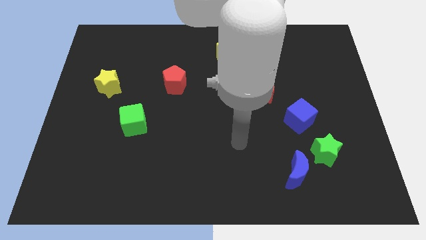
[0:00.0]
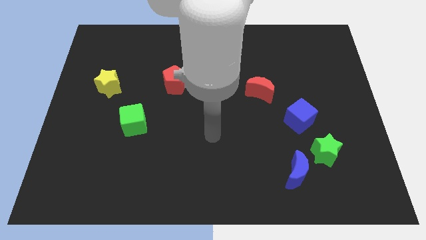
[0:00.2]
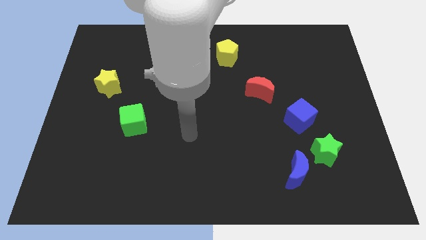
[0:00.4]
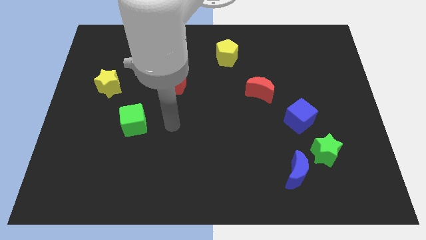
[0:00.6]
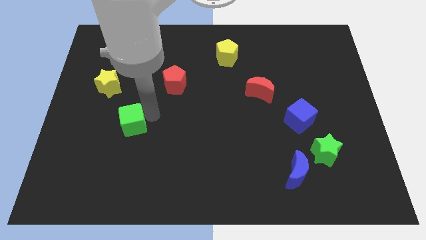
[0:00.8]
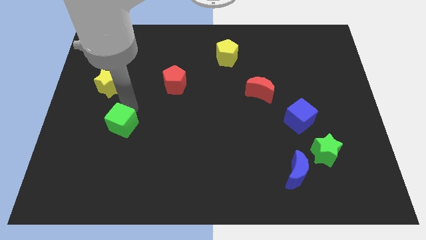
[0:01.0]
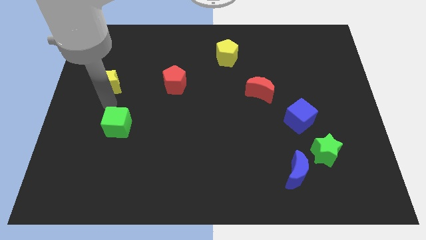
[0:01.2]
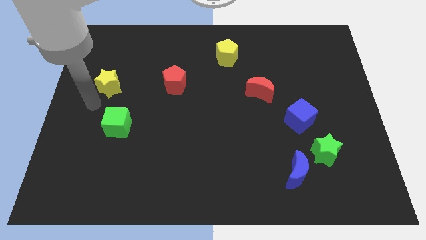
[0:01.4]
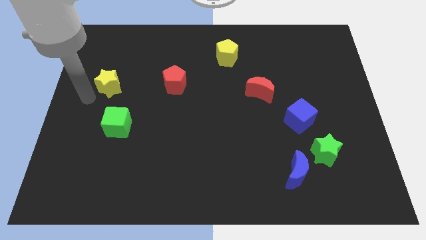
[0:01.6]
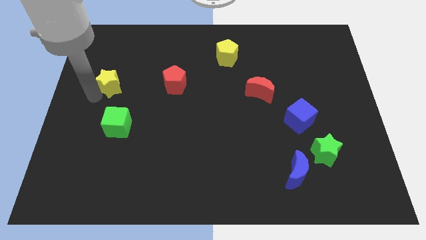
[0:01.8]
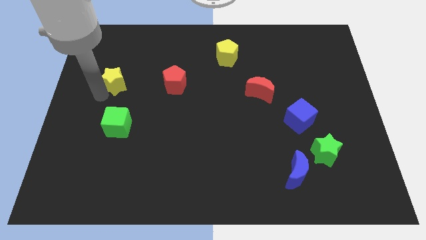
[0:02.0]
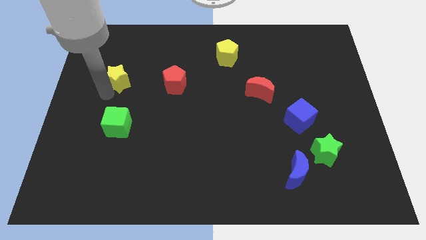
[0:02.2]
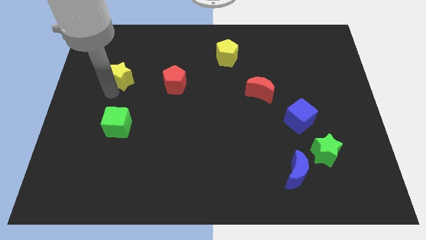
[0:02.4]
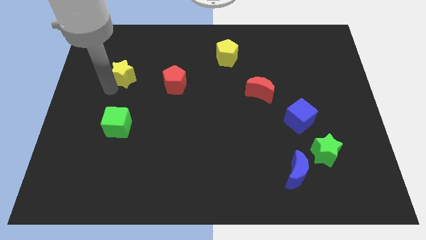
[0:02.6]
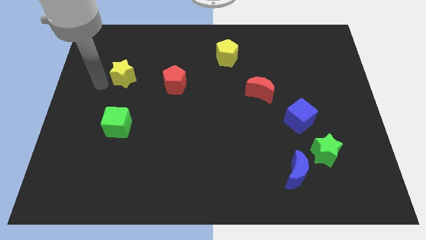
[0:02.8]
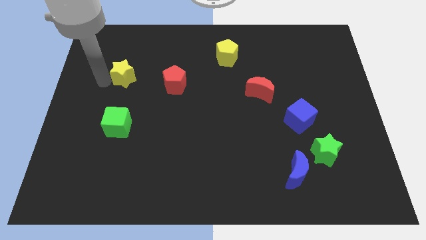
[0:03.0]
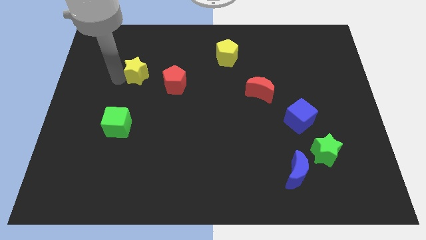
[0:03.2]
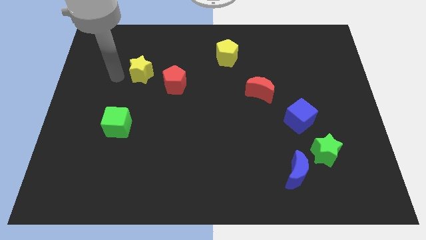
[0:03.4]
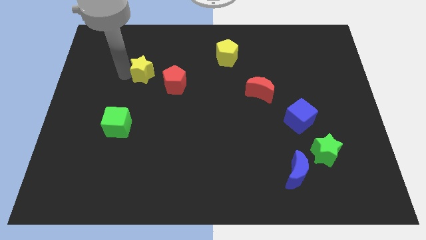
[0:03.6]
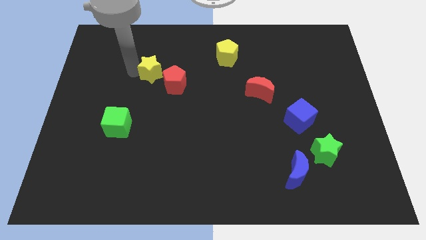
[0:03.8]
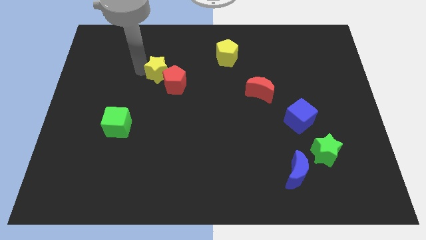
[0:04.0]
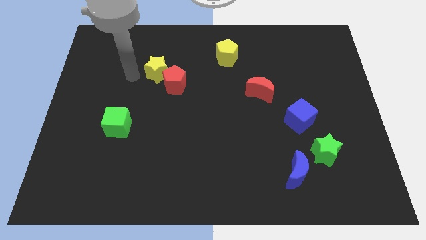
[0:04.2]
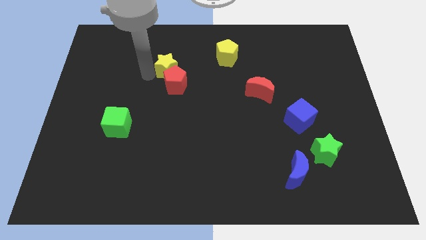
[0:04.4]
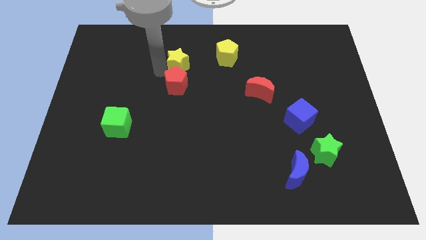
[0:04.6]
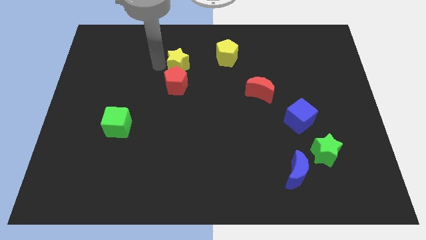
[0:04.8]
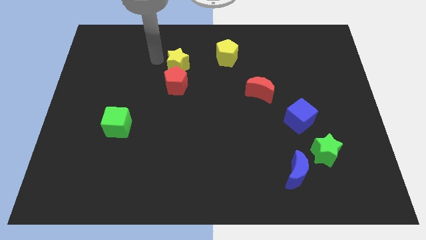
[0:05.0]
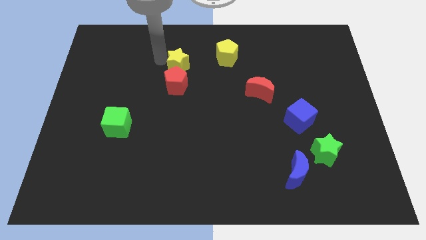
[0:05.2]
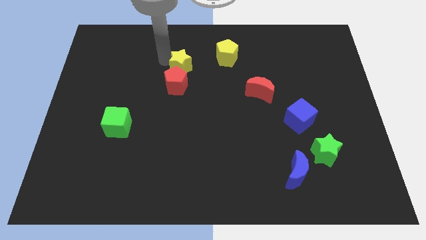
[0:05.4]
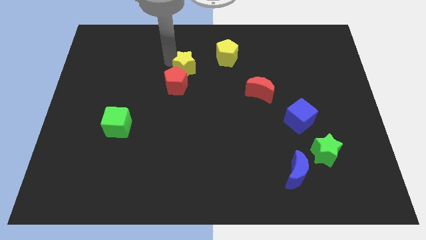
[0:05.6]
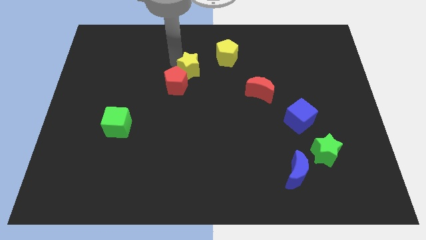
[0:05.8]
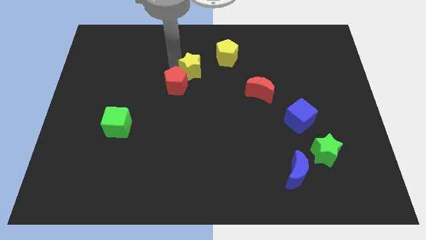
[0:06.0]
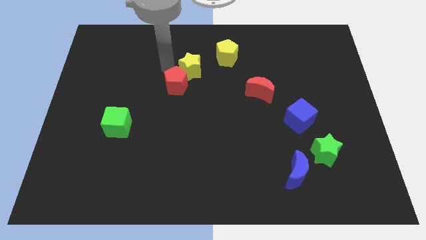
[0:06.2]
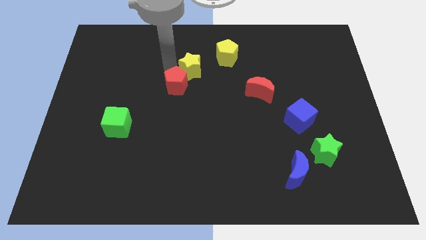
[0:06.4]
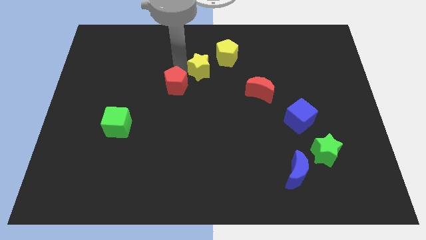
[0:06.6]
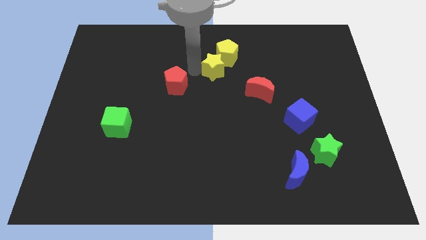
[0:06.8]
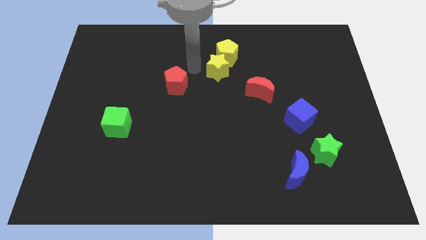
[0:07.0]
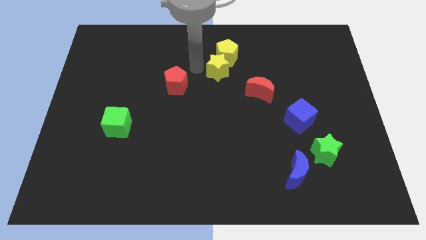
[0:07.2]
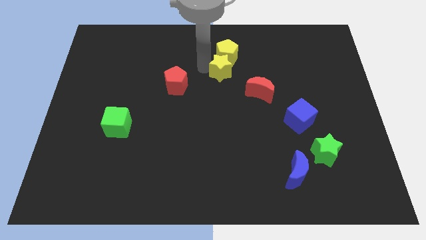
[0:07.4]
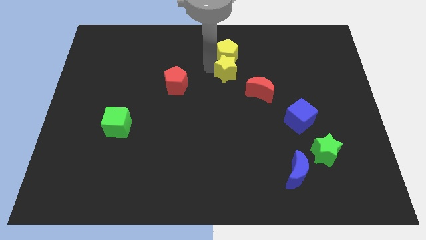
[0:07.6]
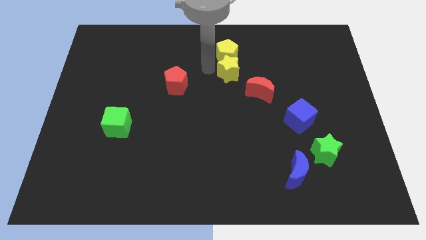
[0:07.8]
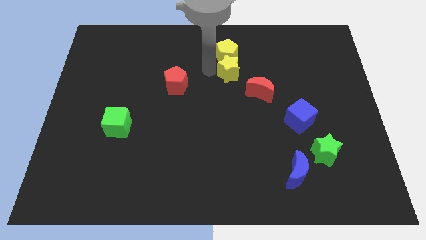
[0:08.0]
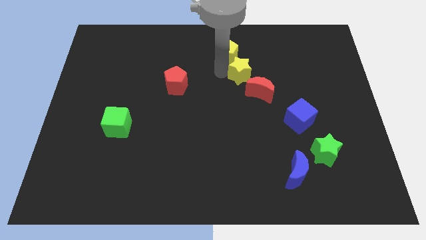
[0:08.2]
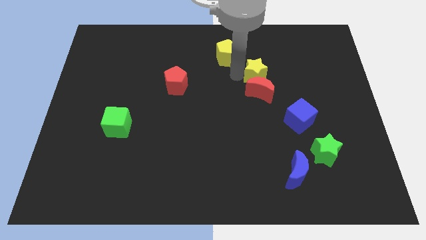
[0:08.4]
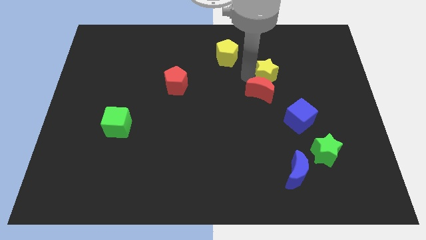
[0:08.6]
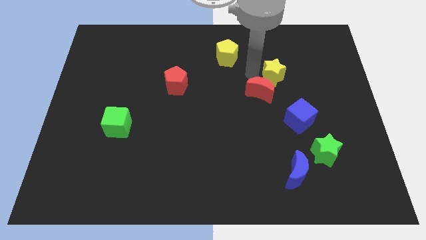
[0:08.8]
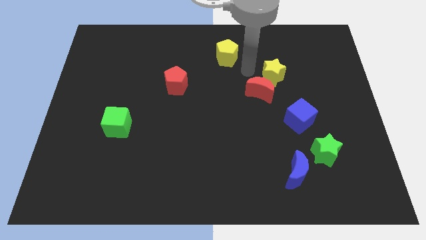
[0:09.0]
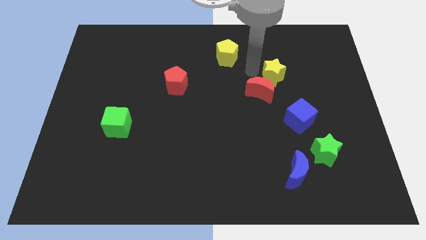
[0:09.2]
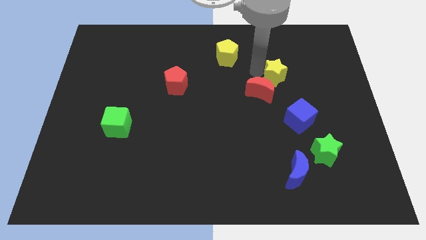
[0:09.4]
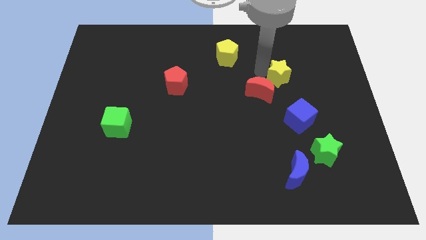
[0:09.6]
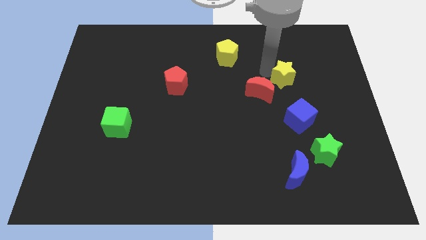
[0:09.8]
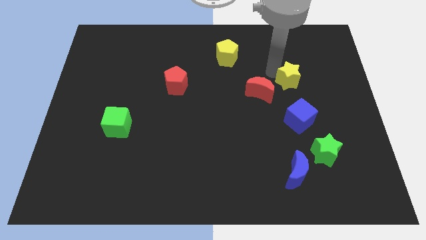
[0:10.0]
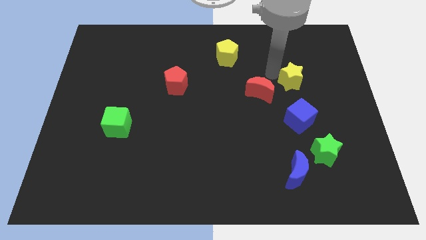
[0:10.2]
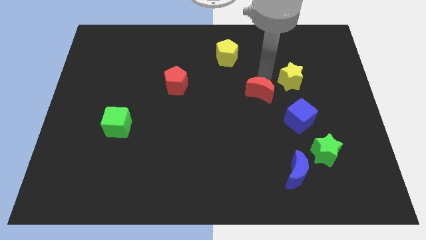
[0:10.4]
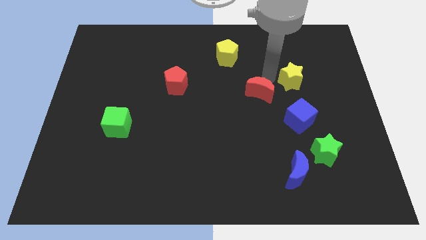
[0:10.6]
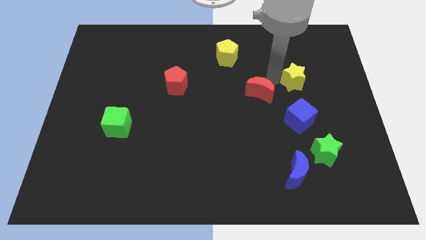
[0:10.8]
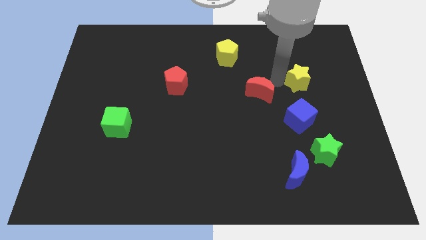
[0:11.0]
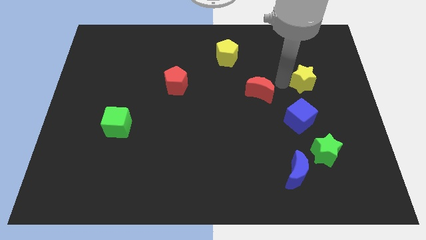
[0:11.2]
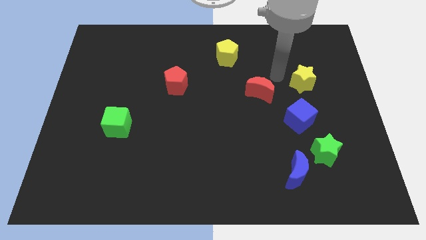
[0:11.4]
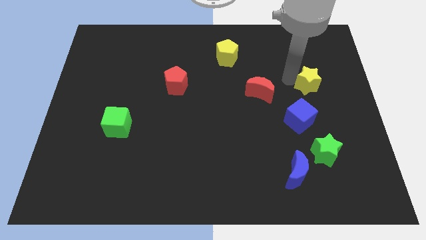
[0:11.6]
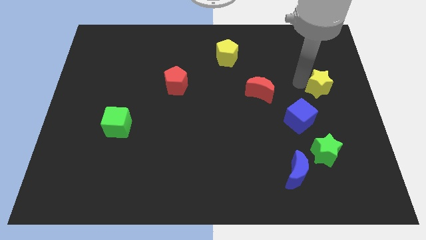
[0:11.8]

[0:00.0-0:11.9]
push the yellow star to the center right

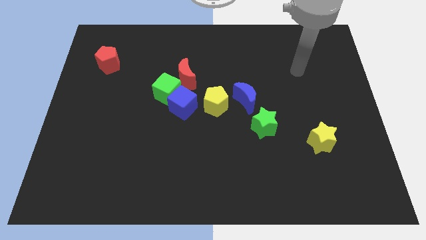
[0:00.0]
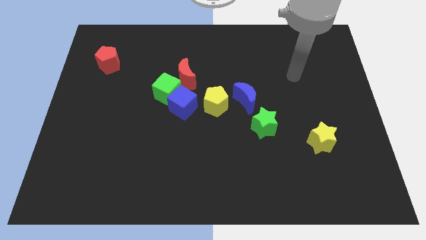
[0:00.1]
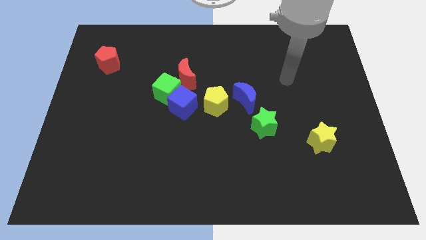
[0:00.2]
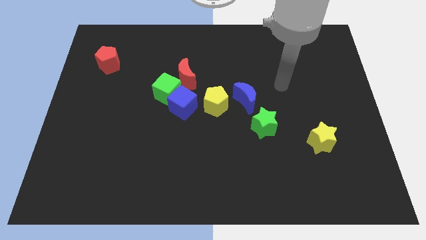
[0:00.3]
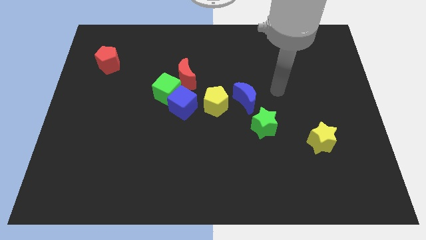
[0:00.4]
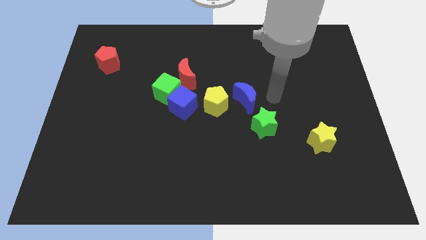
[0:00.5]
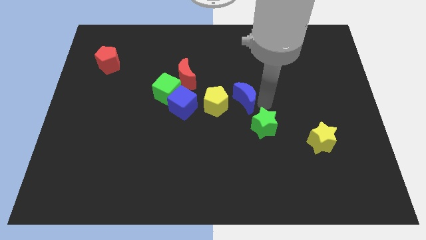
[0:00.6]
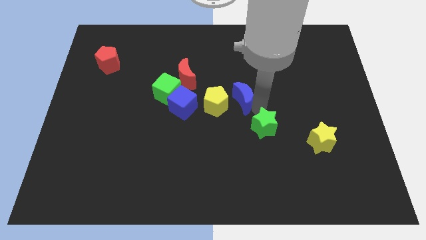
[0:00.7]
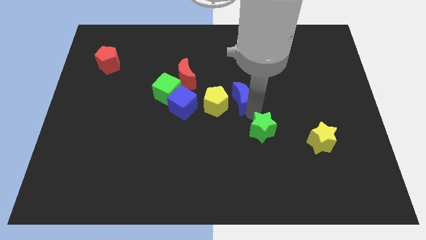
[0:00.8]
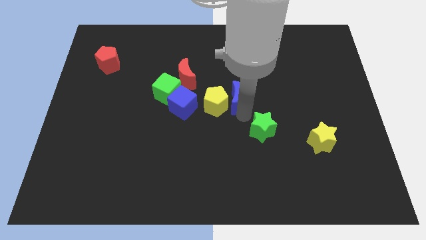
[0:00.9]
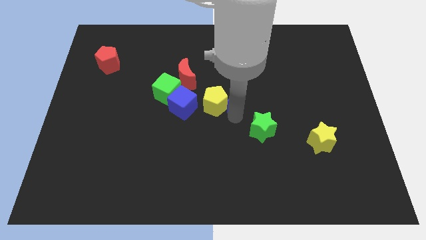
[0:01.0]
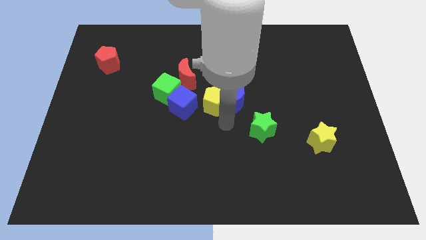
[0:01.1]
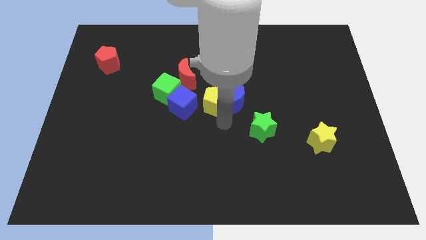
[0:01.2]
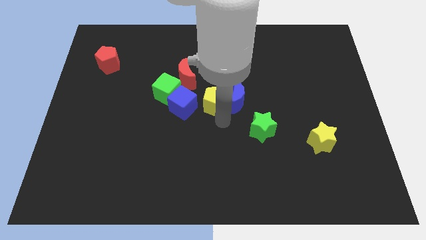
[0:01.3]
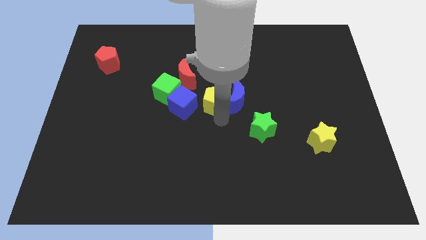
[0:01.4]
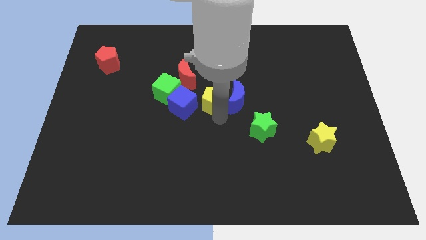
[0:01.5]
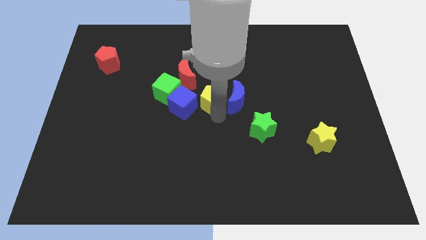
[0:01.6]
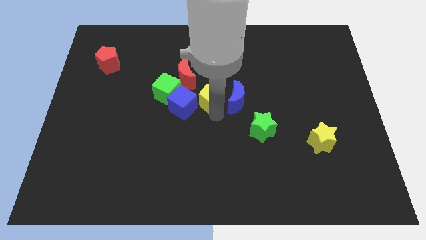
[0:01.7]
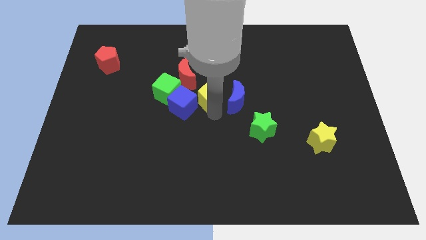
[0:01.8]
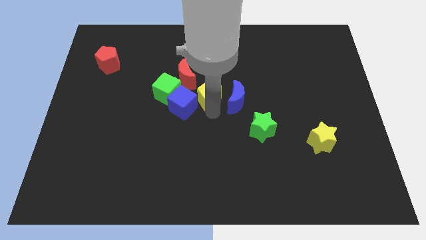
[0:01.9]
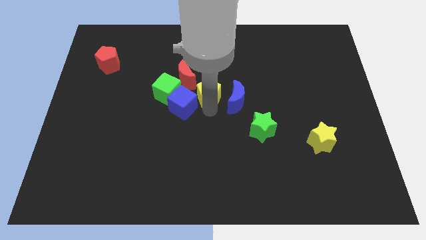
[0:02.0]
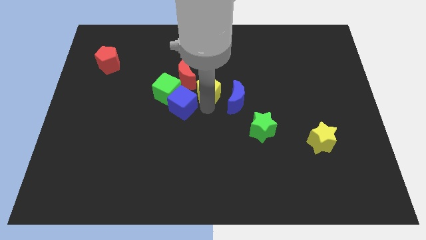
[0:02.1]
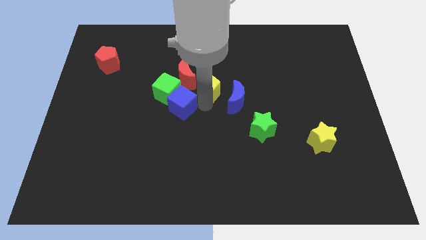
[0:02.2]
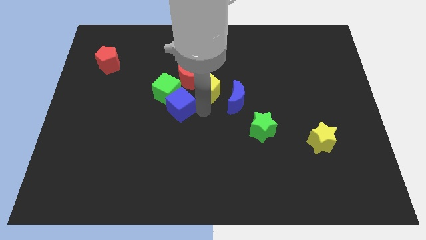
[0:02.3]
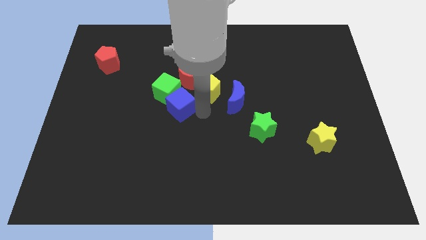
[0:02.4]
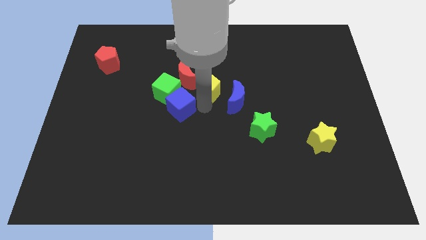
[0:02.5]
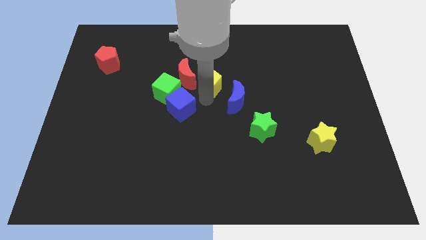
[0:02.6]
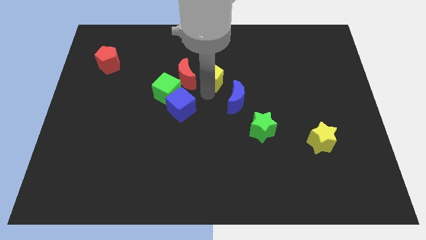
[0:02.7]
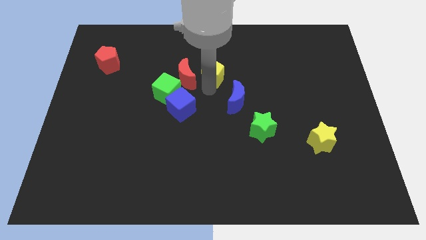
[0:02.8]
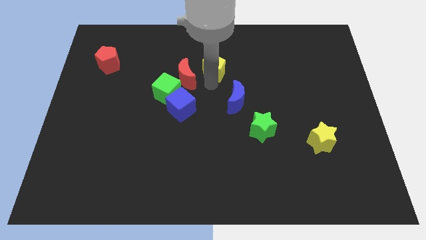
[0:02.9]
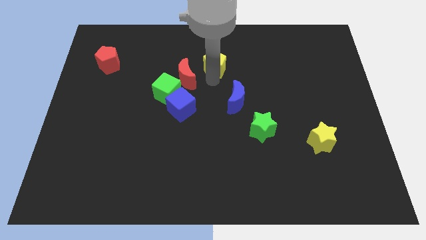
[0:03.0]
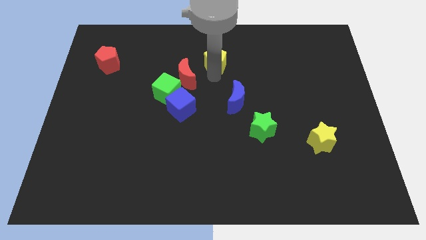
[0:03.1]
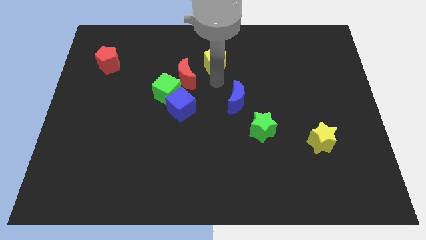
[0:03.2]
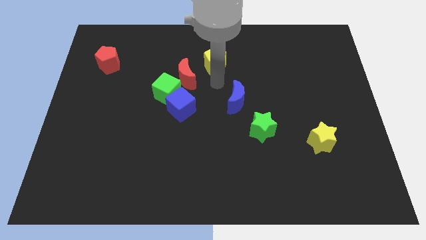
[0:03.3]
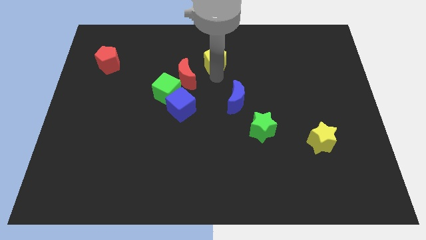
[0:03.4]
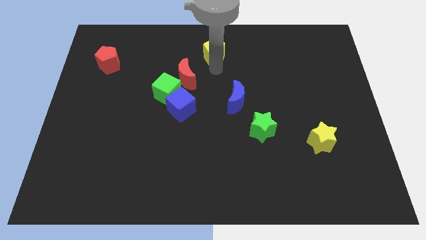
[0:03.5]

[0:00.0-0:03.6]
push the yellow pentagon to the top
